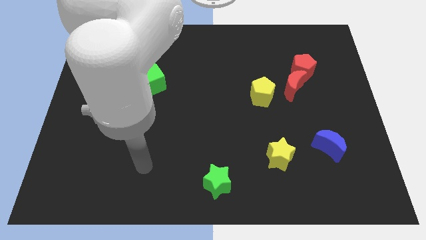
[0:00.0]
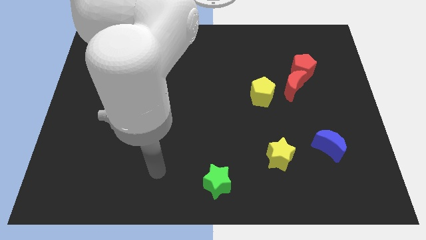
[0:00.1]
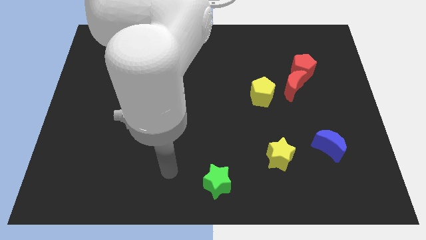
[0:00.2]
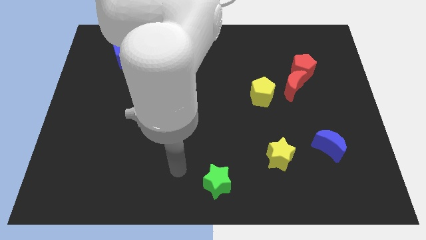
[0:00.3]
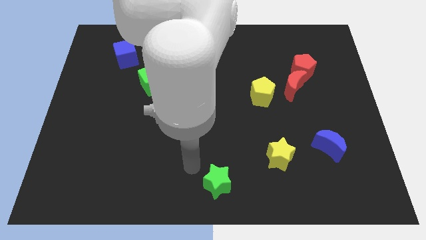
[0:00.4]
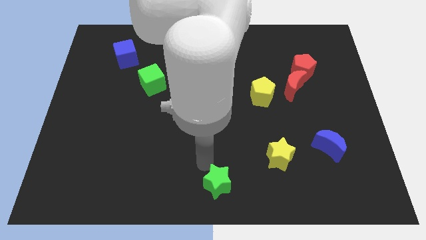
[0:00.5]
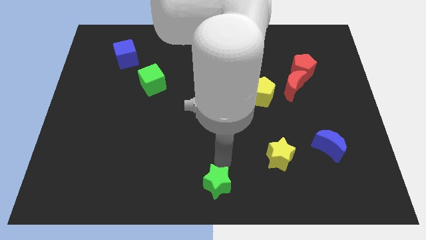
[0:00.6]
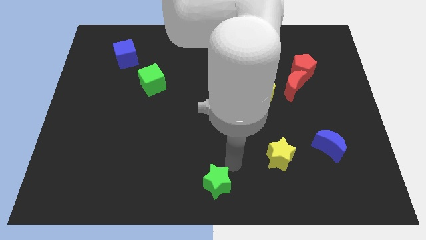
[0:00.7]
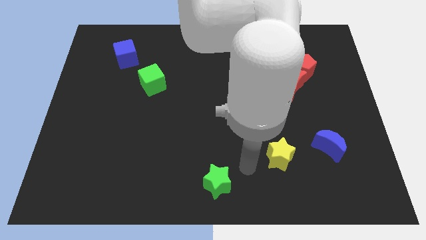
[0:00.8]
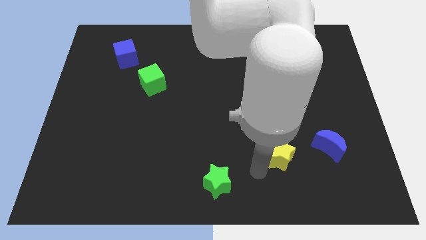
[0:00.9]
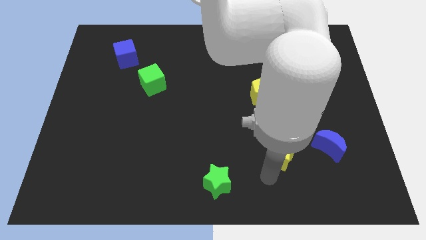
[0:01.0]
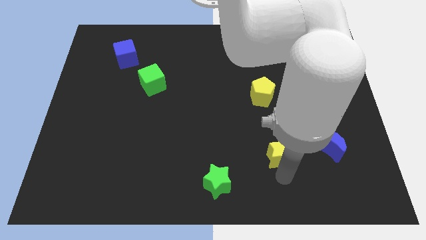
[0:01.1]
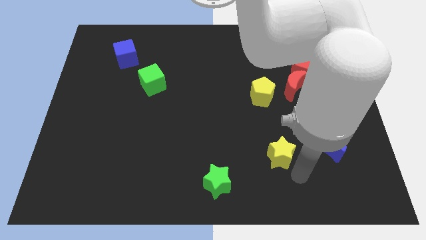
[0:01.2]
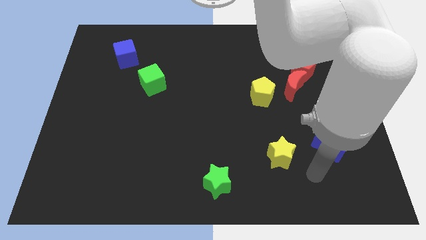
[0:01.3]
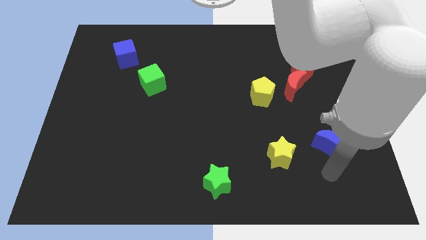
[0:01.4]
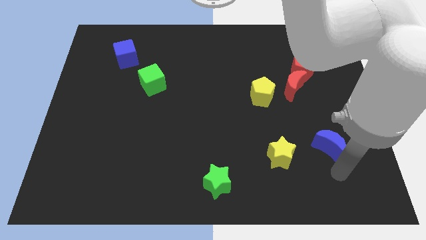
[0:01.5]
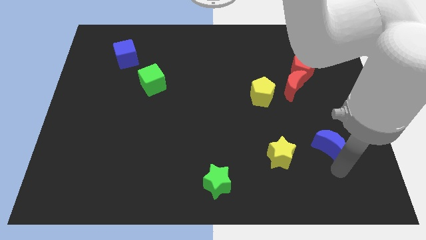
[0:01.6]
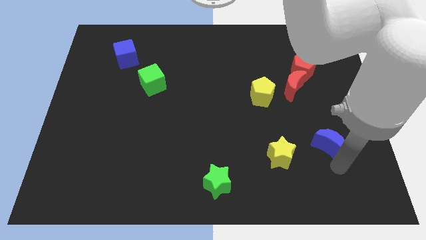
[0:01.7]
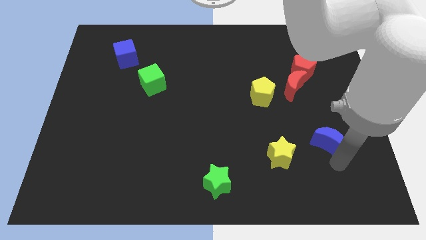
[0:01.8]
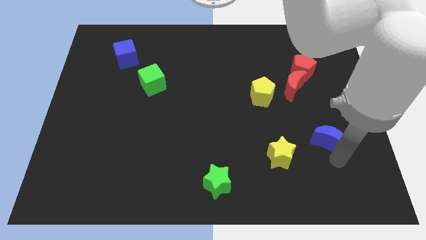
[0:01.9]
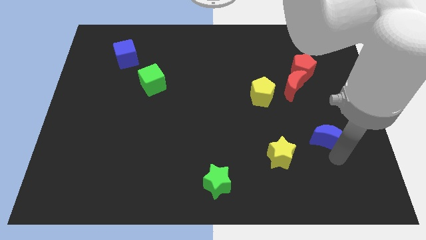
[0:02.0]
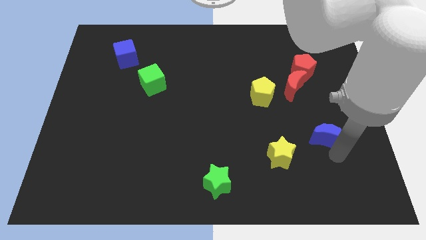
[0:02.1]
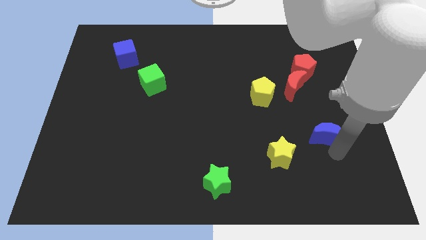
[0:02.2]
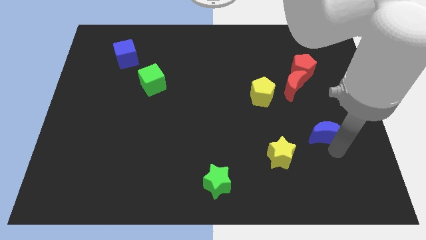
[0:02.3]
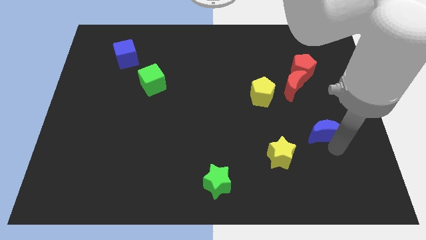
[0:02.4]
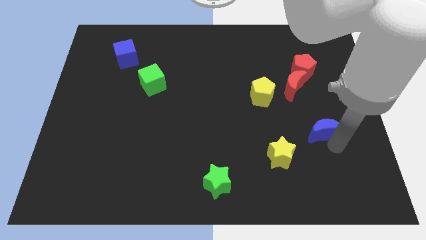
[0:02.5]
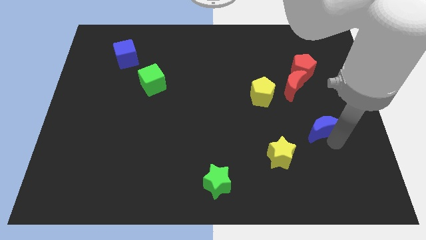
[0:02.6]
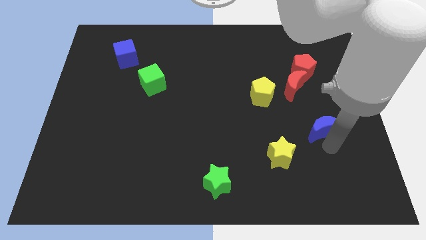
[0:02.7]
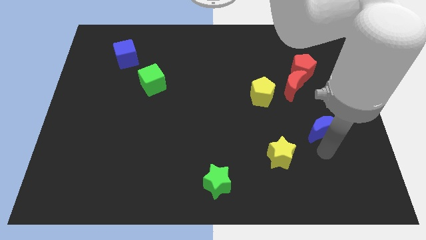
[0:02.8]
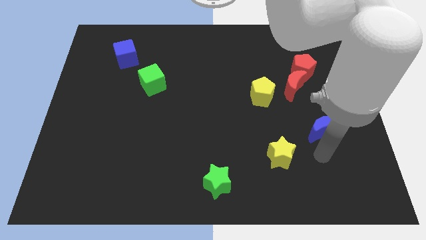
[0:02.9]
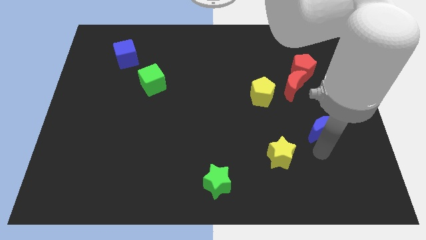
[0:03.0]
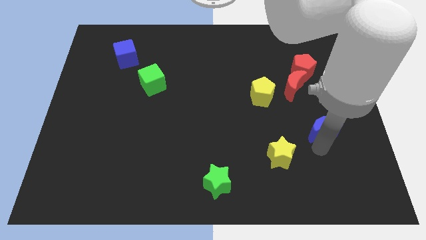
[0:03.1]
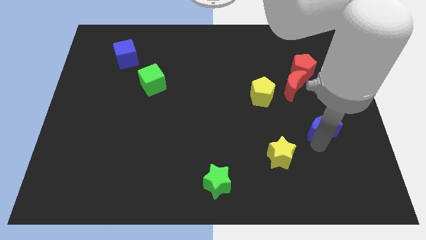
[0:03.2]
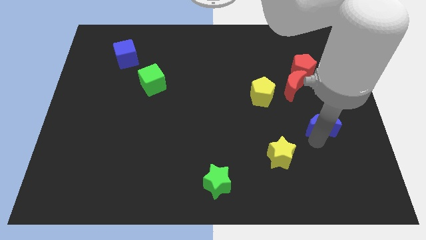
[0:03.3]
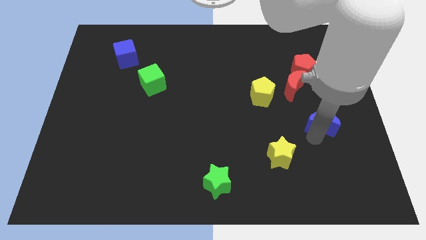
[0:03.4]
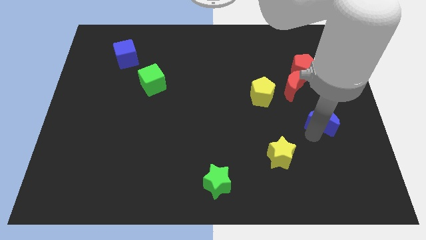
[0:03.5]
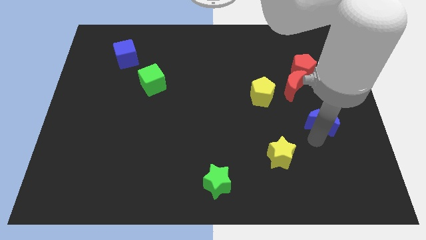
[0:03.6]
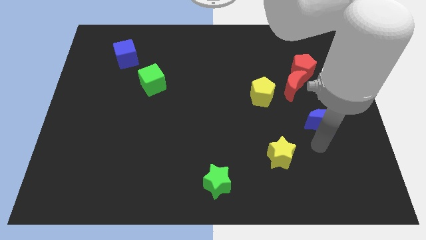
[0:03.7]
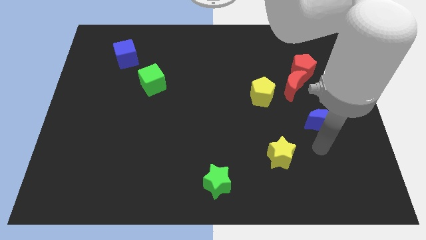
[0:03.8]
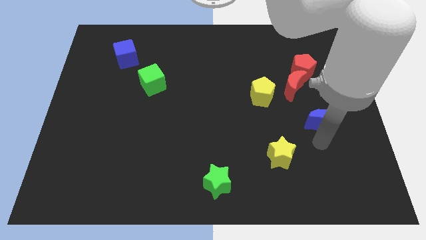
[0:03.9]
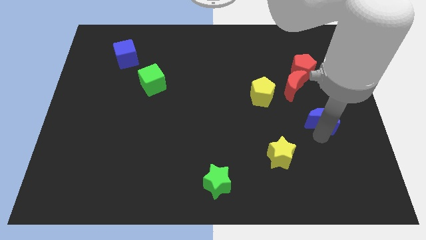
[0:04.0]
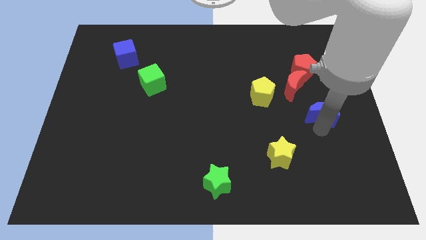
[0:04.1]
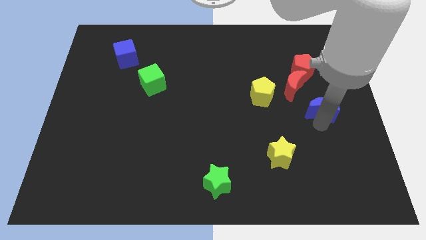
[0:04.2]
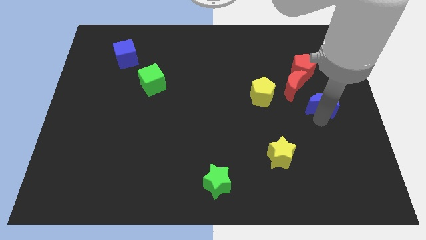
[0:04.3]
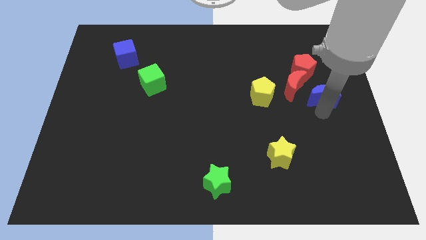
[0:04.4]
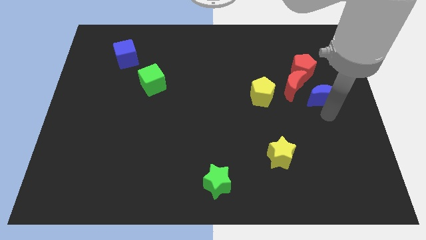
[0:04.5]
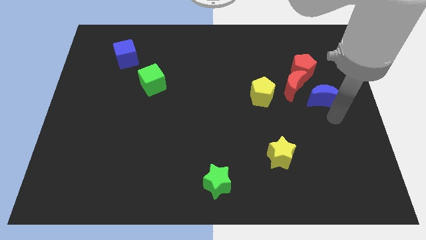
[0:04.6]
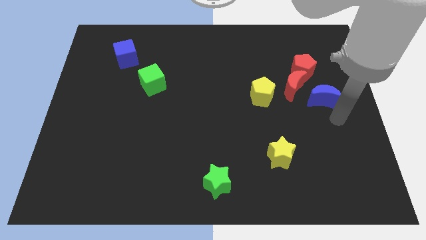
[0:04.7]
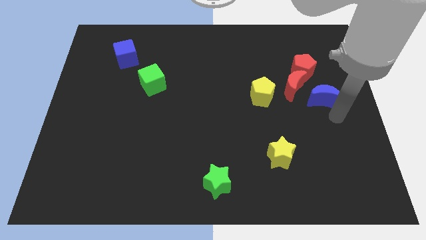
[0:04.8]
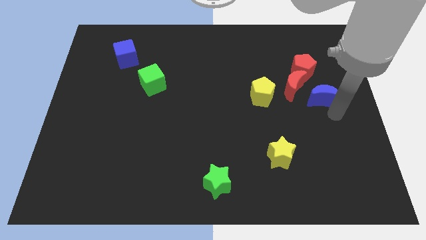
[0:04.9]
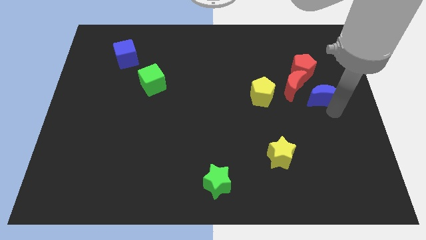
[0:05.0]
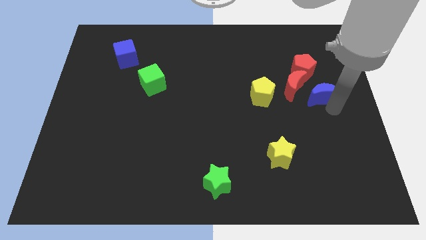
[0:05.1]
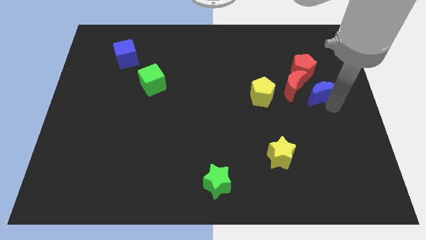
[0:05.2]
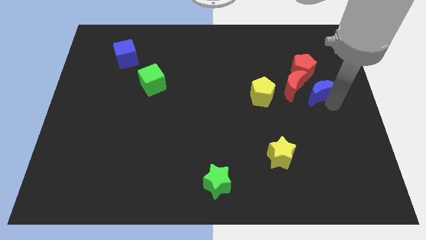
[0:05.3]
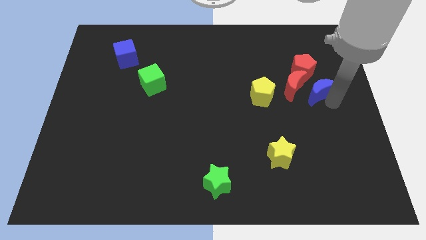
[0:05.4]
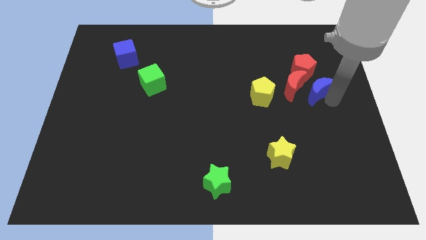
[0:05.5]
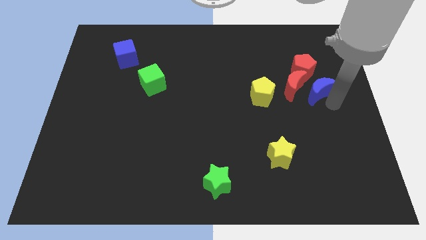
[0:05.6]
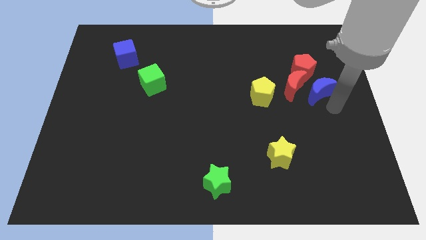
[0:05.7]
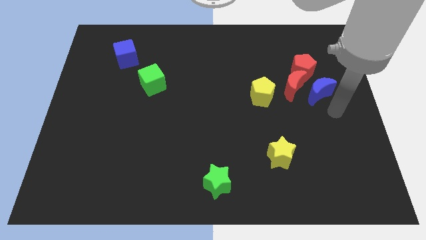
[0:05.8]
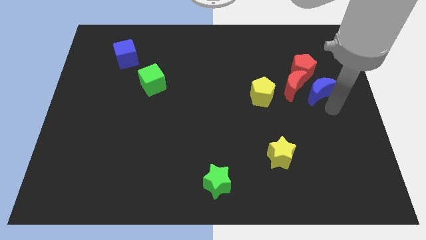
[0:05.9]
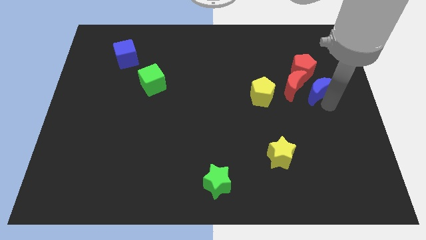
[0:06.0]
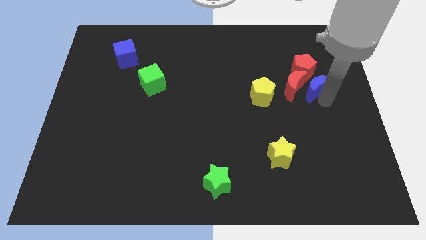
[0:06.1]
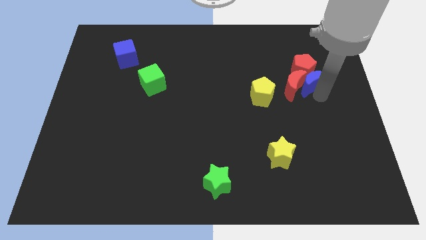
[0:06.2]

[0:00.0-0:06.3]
push the blue moon close to the red pentagon

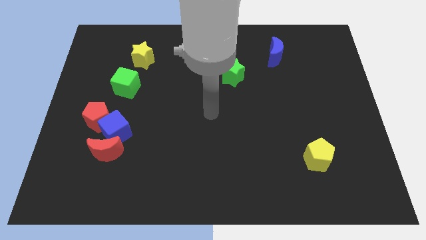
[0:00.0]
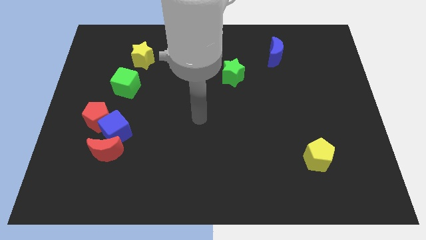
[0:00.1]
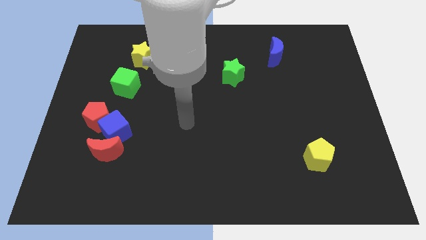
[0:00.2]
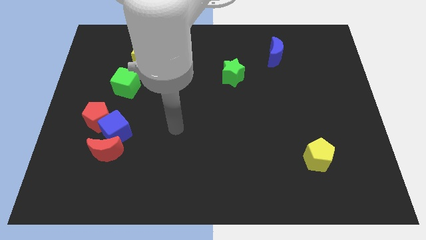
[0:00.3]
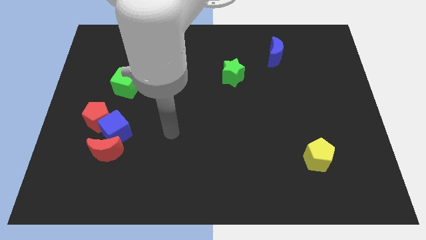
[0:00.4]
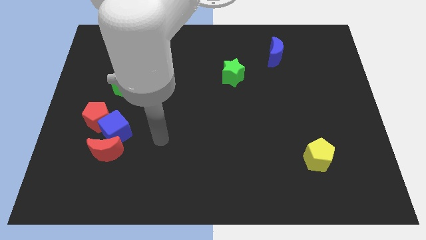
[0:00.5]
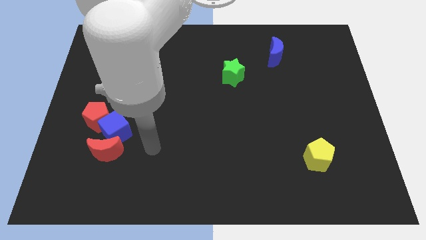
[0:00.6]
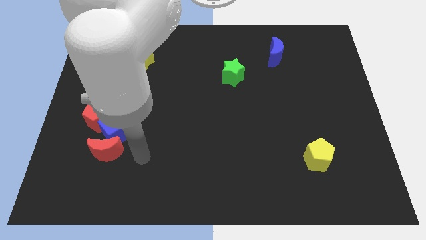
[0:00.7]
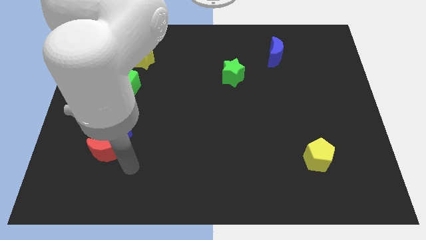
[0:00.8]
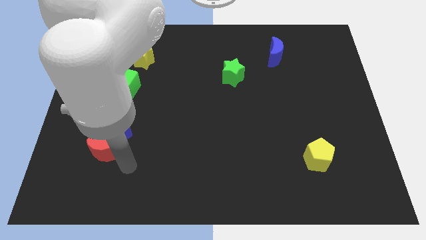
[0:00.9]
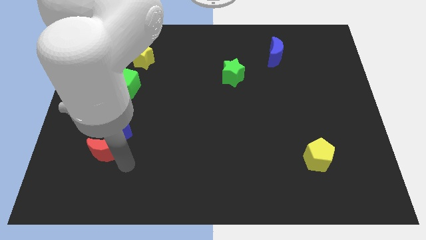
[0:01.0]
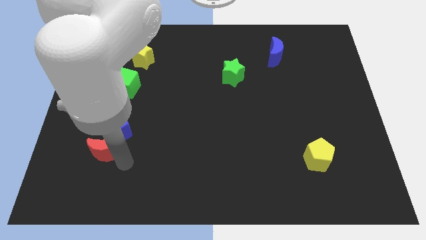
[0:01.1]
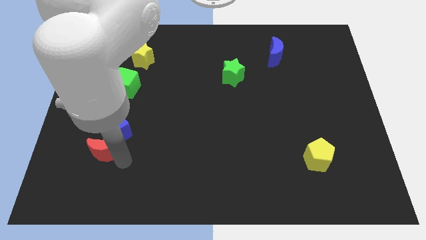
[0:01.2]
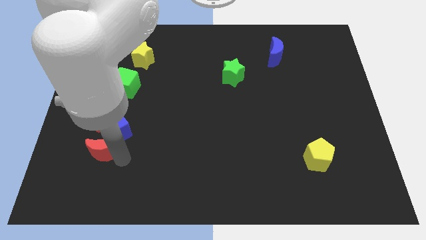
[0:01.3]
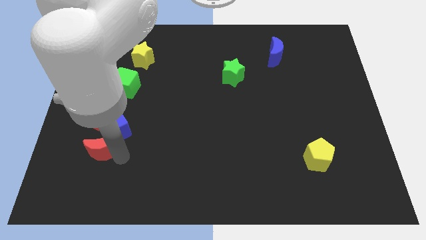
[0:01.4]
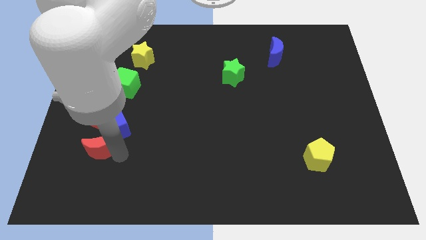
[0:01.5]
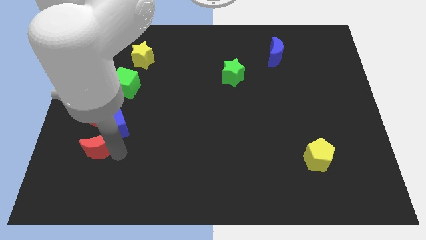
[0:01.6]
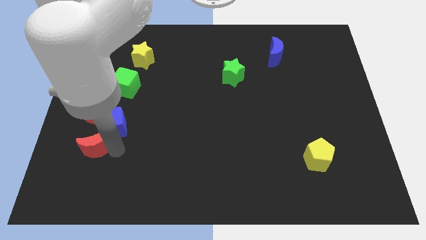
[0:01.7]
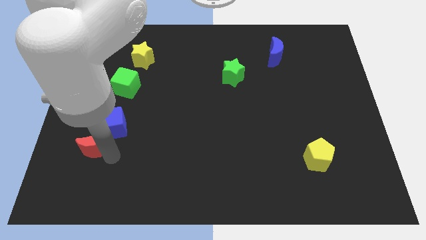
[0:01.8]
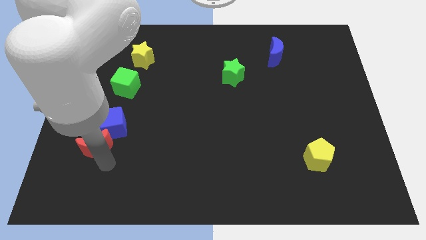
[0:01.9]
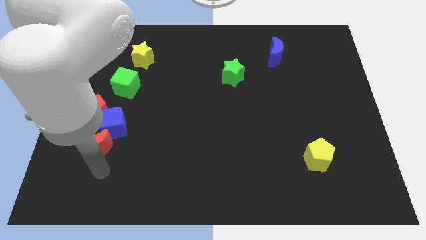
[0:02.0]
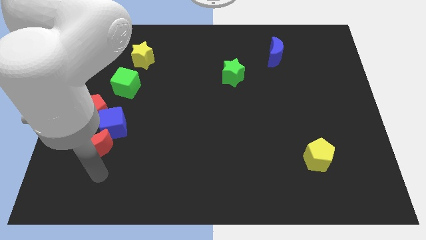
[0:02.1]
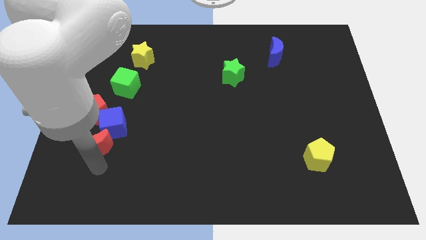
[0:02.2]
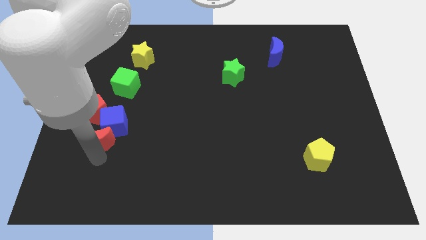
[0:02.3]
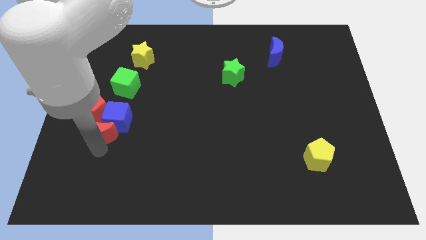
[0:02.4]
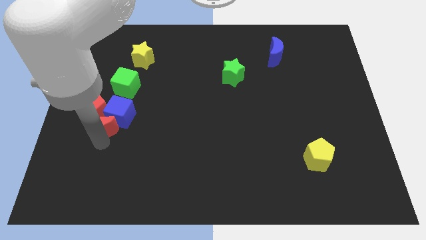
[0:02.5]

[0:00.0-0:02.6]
move the red moon next to the red pentagon
